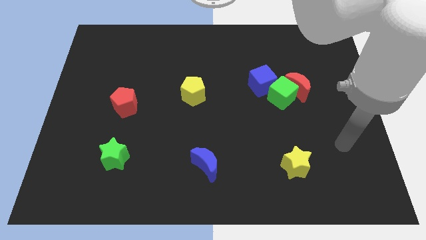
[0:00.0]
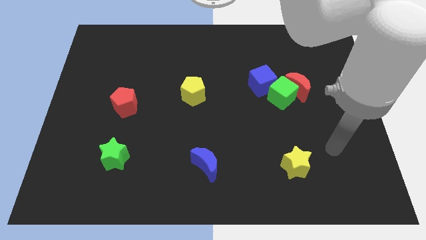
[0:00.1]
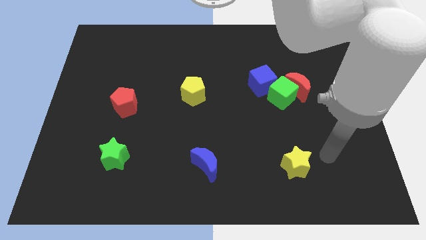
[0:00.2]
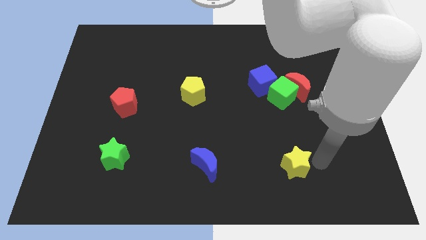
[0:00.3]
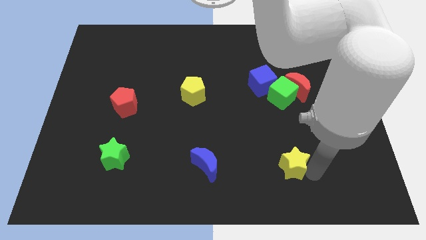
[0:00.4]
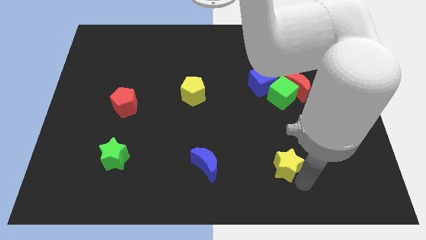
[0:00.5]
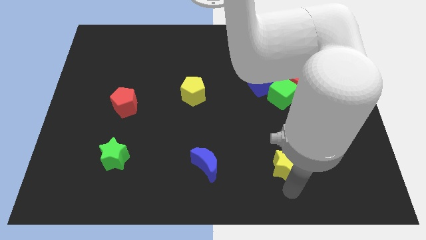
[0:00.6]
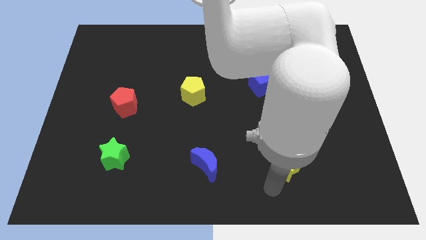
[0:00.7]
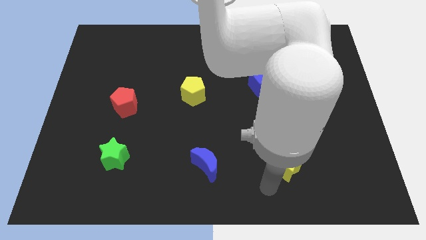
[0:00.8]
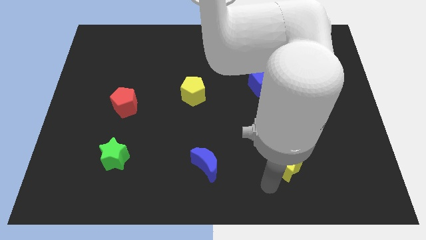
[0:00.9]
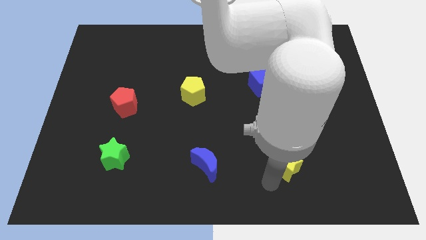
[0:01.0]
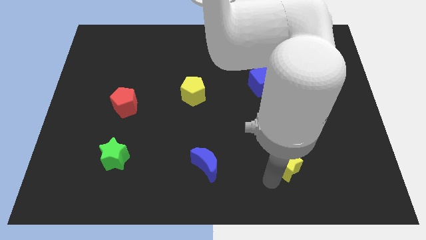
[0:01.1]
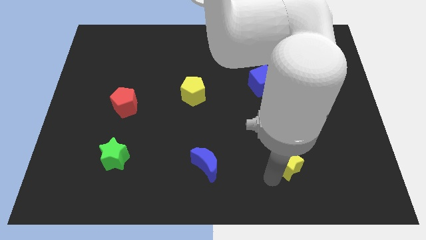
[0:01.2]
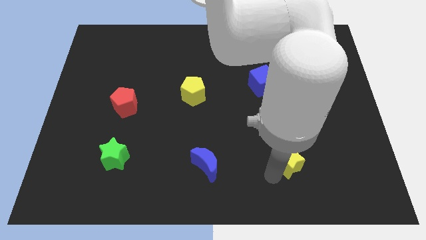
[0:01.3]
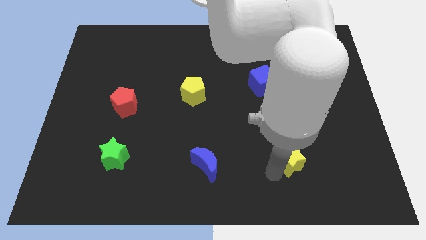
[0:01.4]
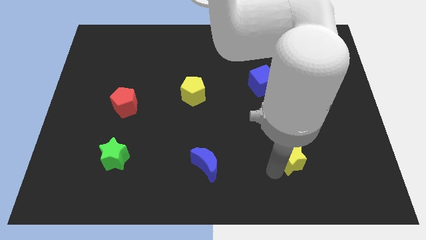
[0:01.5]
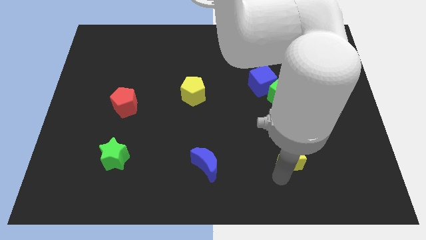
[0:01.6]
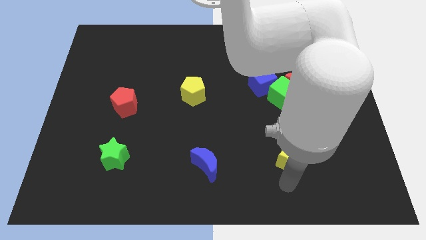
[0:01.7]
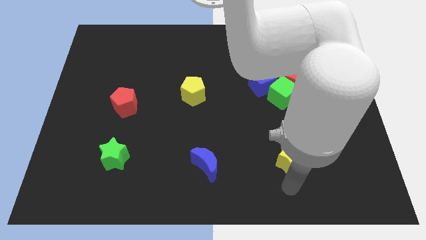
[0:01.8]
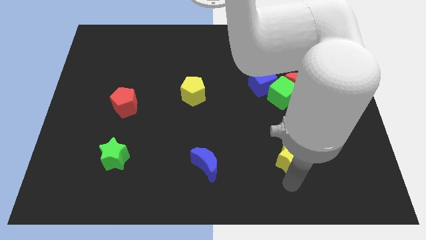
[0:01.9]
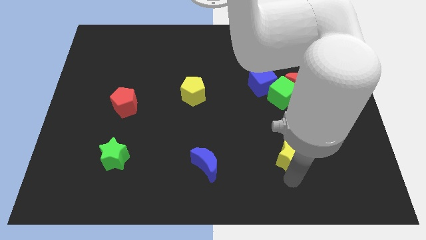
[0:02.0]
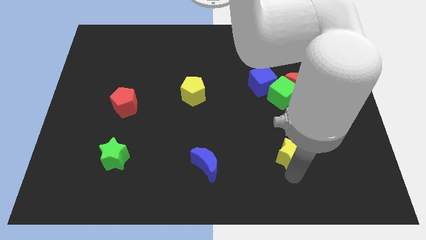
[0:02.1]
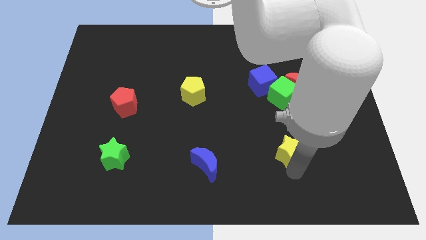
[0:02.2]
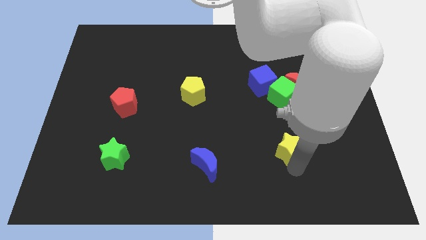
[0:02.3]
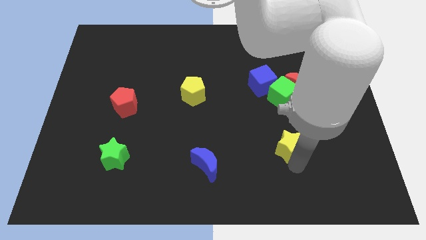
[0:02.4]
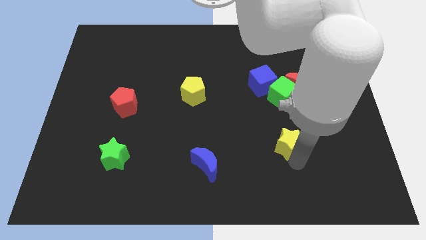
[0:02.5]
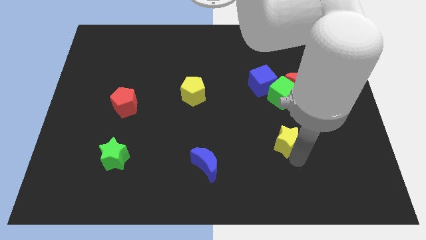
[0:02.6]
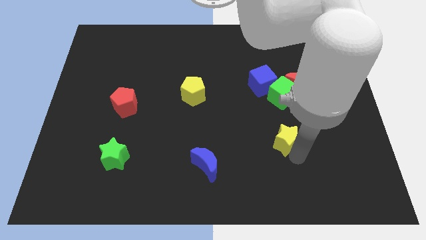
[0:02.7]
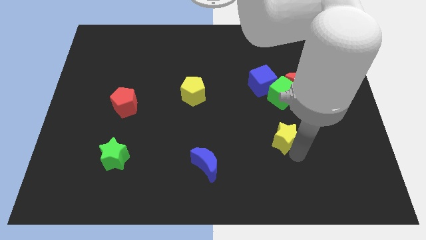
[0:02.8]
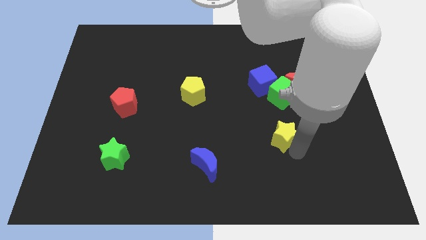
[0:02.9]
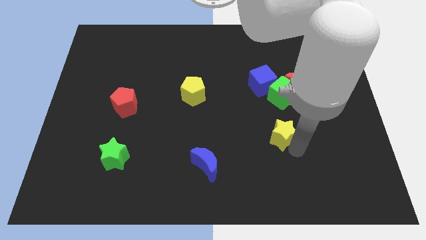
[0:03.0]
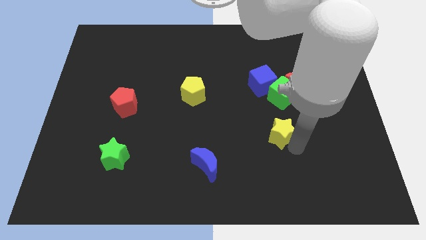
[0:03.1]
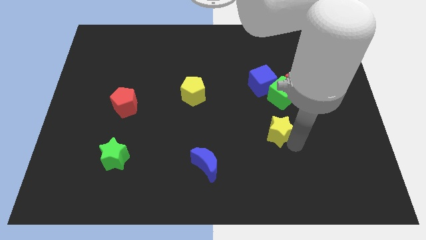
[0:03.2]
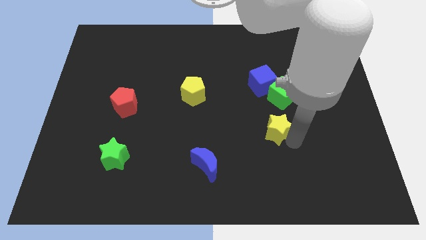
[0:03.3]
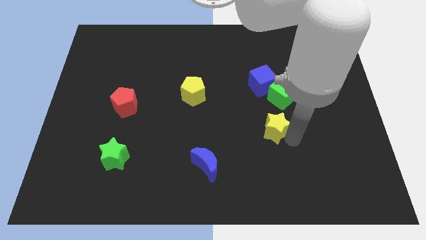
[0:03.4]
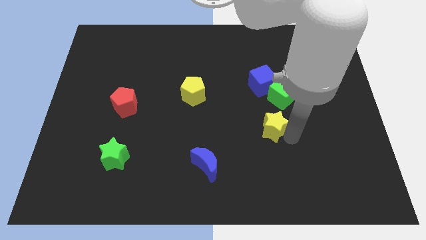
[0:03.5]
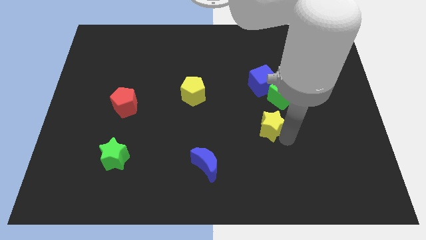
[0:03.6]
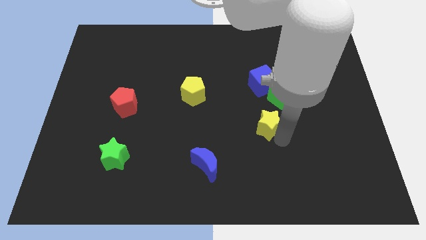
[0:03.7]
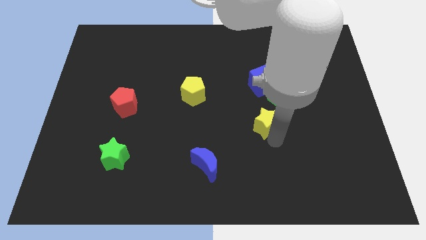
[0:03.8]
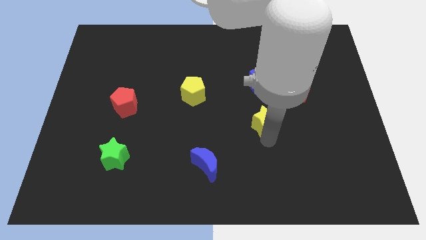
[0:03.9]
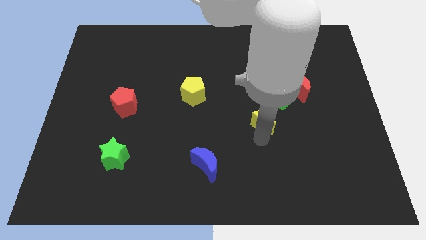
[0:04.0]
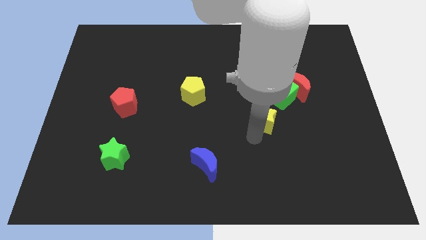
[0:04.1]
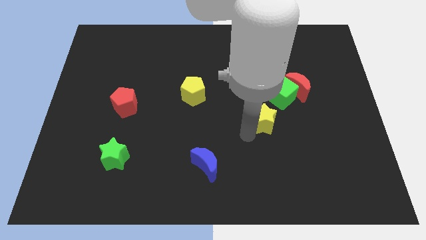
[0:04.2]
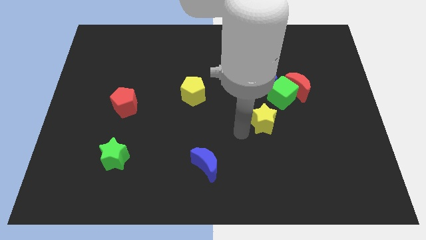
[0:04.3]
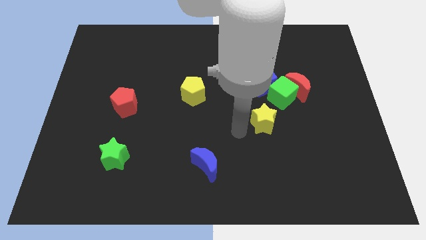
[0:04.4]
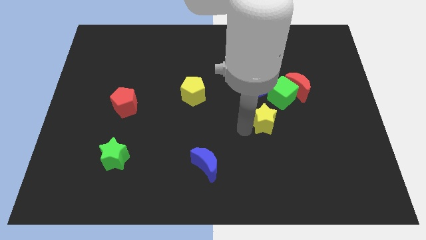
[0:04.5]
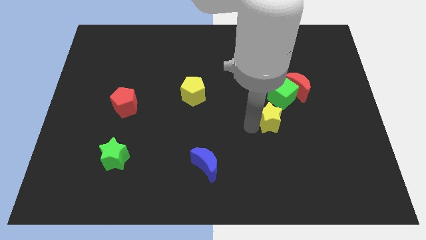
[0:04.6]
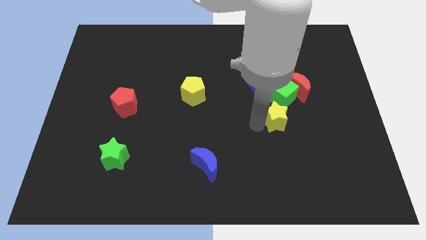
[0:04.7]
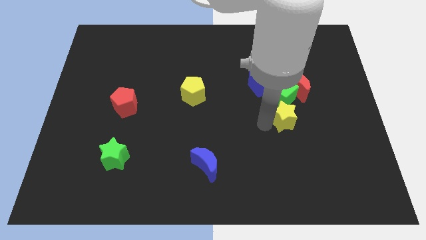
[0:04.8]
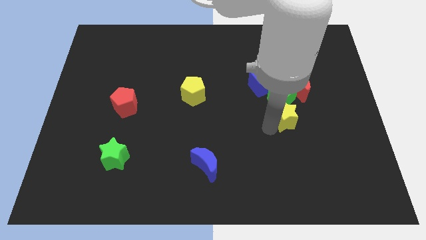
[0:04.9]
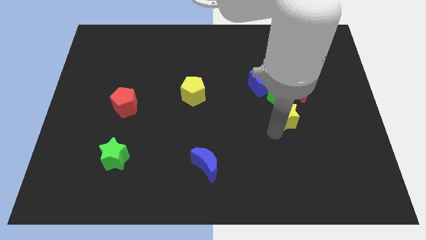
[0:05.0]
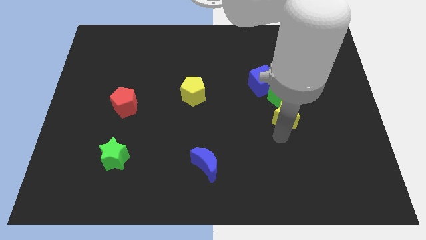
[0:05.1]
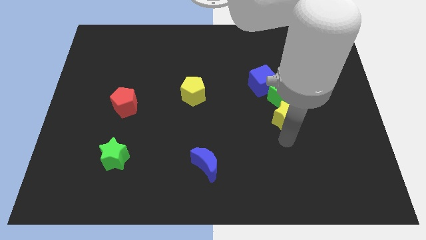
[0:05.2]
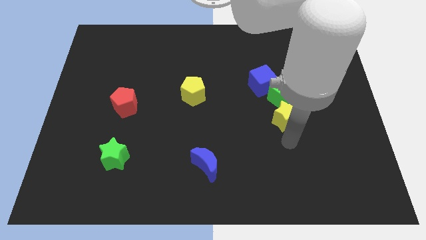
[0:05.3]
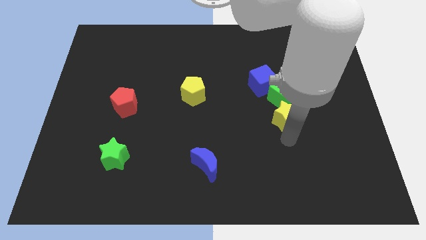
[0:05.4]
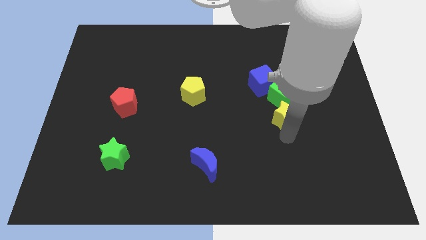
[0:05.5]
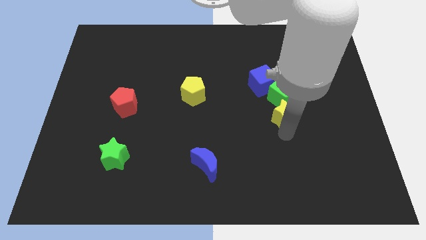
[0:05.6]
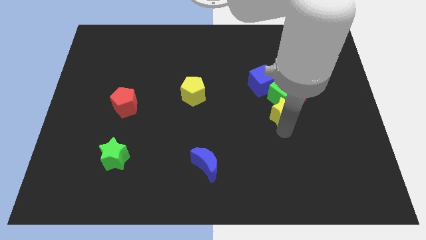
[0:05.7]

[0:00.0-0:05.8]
put the yellow star to the green cube

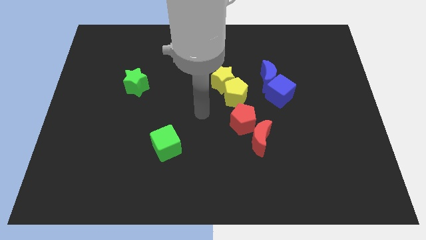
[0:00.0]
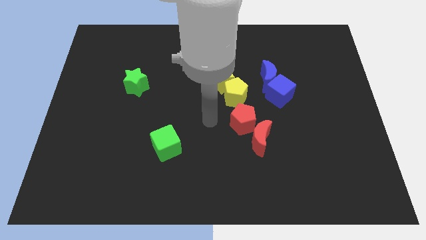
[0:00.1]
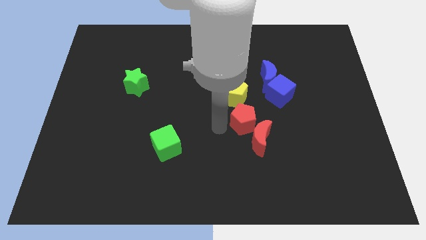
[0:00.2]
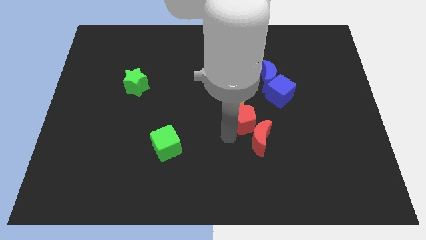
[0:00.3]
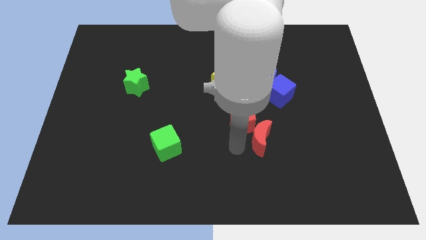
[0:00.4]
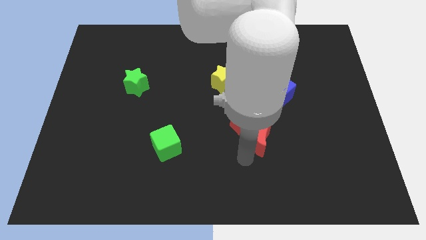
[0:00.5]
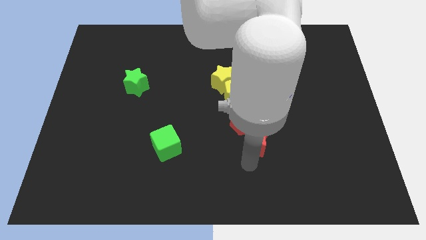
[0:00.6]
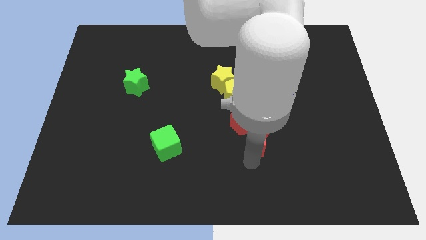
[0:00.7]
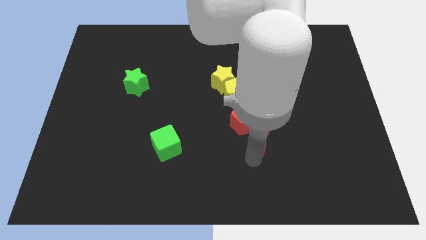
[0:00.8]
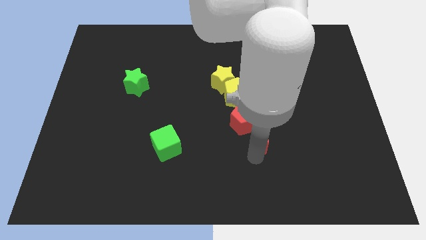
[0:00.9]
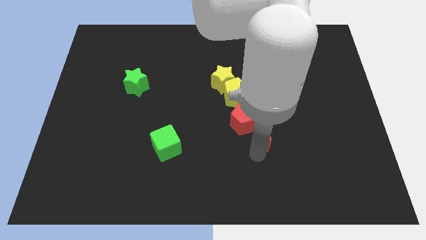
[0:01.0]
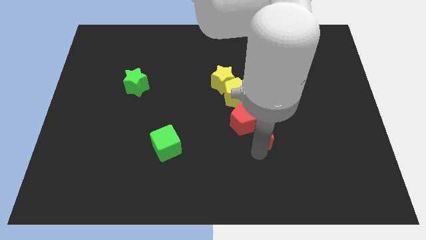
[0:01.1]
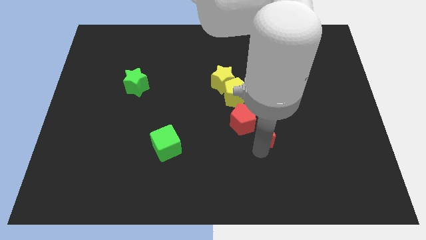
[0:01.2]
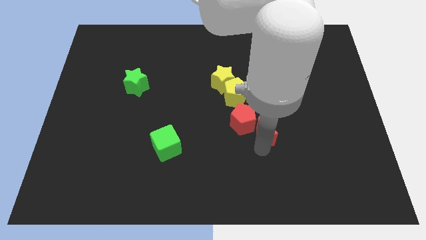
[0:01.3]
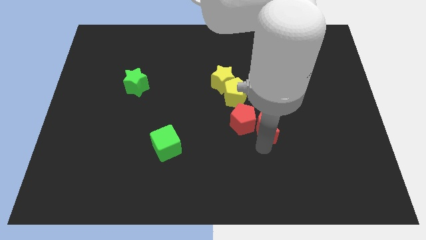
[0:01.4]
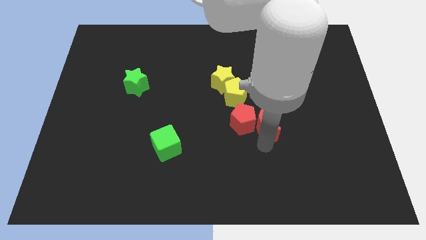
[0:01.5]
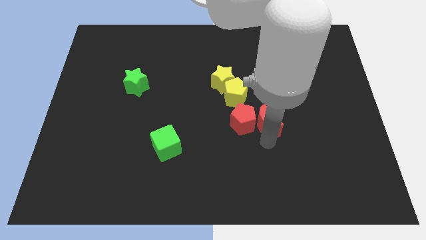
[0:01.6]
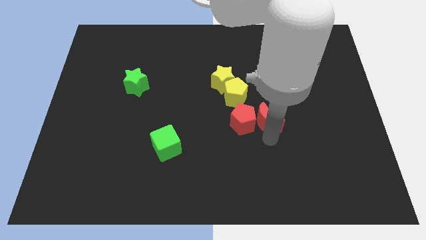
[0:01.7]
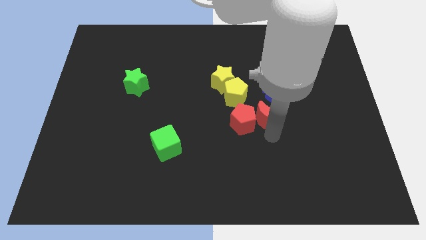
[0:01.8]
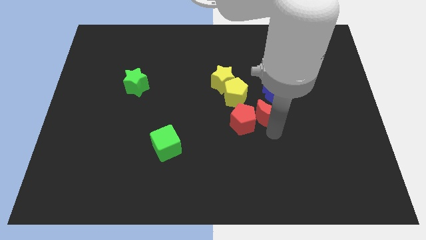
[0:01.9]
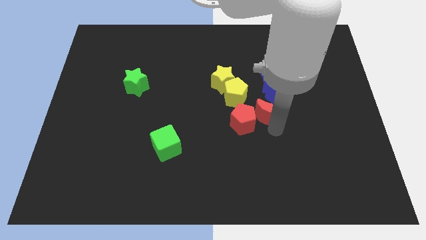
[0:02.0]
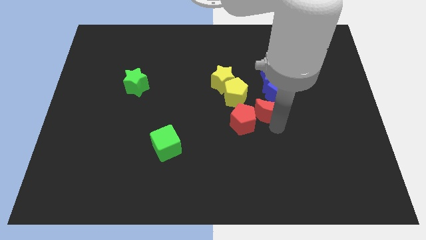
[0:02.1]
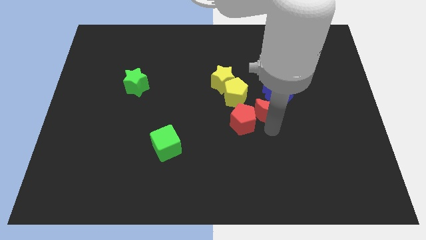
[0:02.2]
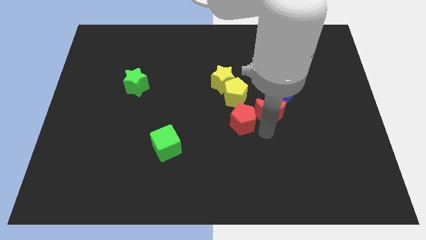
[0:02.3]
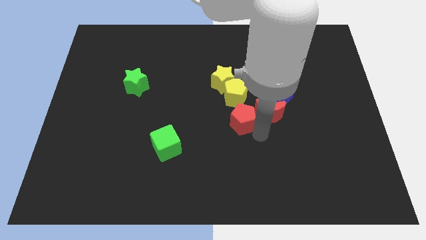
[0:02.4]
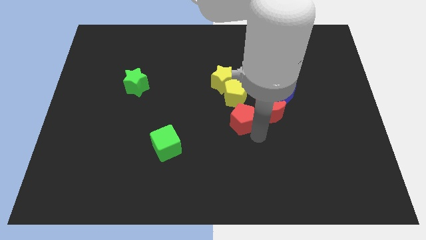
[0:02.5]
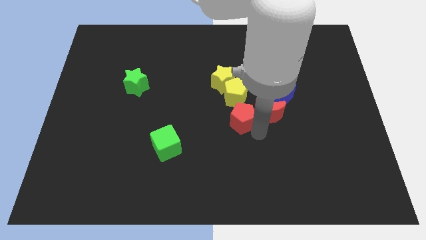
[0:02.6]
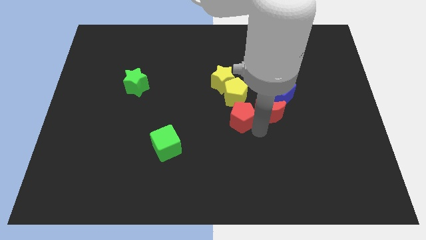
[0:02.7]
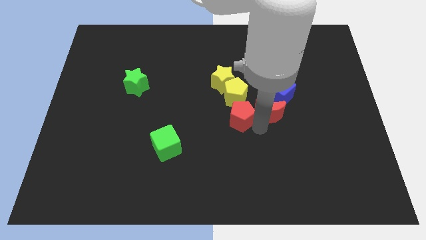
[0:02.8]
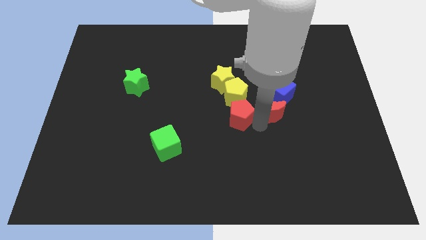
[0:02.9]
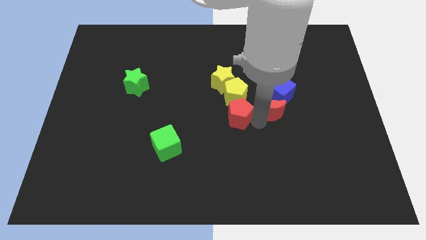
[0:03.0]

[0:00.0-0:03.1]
put the red moon to the blue cube
